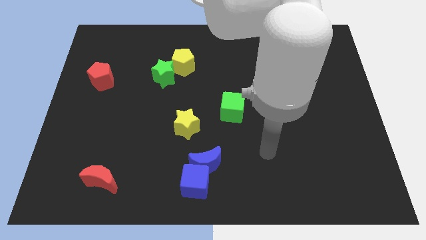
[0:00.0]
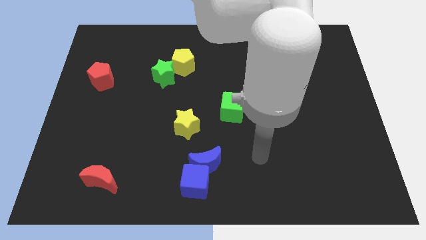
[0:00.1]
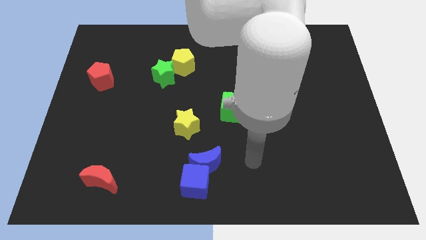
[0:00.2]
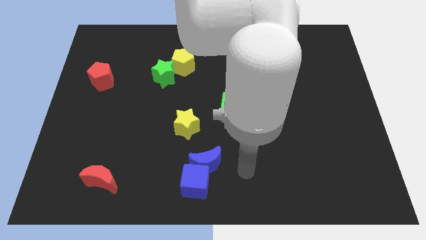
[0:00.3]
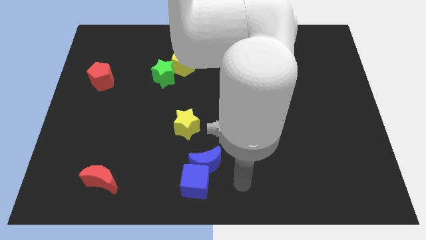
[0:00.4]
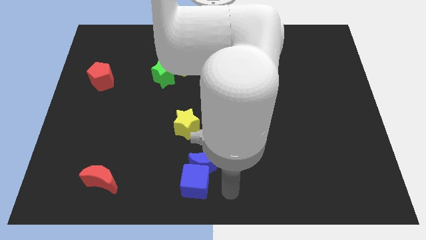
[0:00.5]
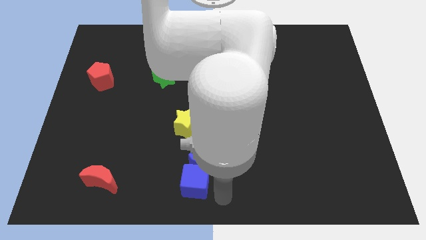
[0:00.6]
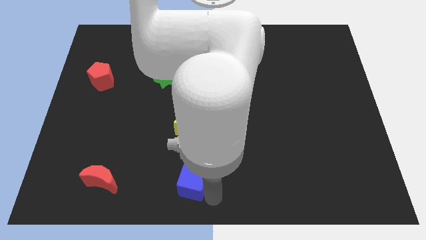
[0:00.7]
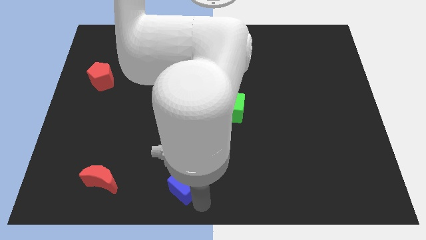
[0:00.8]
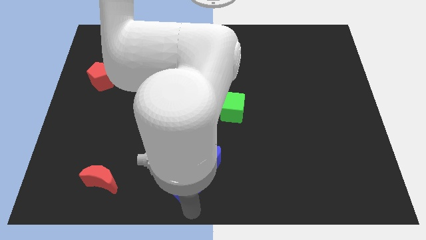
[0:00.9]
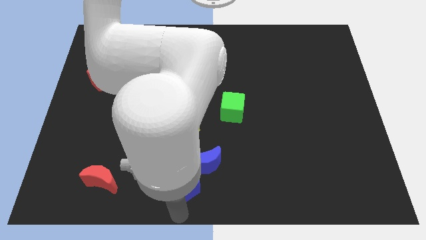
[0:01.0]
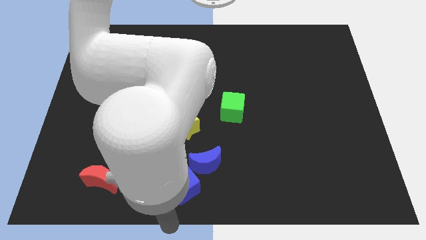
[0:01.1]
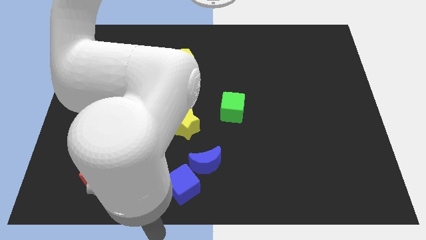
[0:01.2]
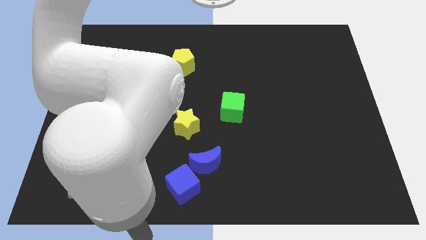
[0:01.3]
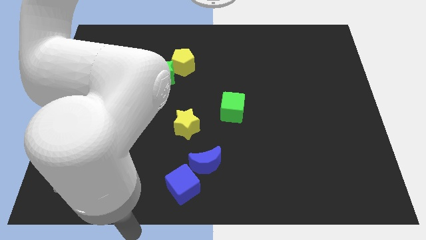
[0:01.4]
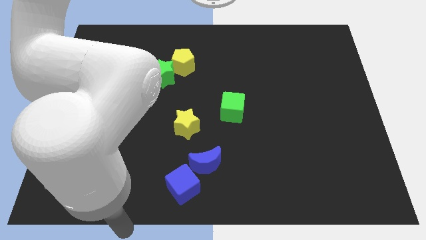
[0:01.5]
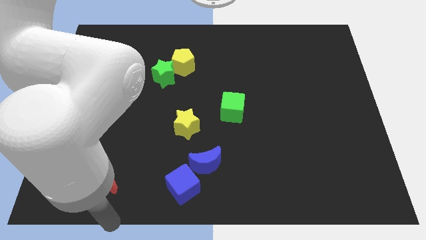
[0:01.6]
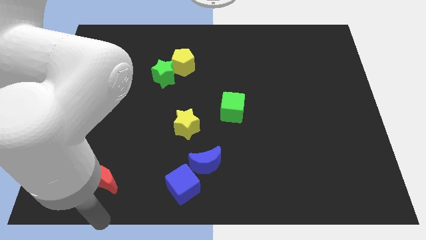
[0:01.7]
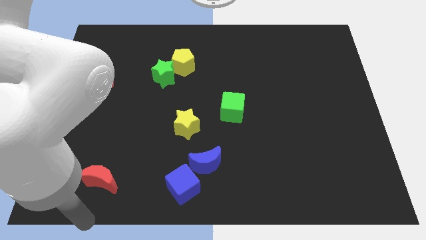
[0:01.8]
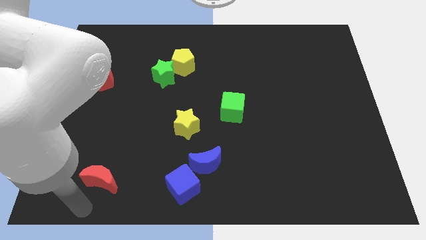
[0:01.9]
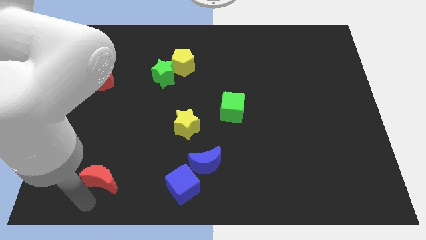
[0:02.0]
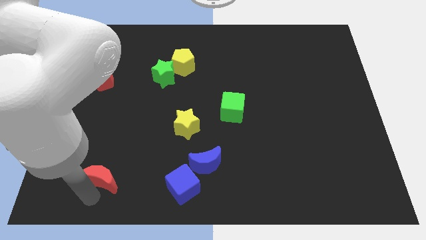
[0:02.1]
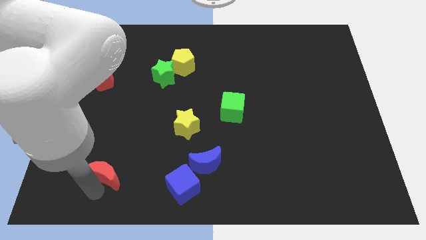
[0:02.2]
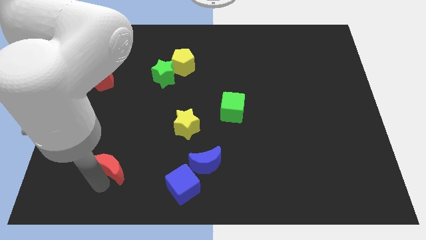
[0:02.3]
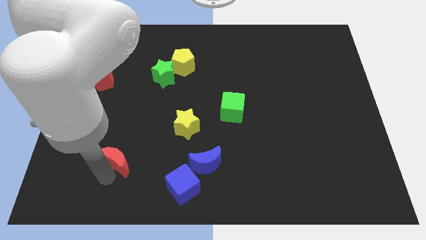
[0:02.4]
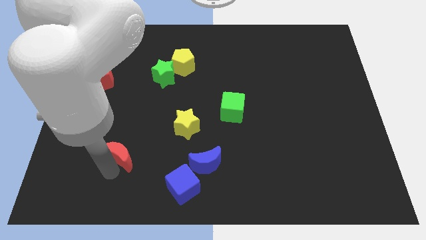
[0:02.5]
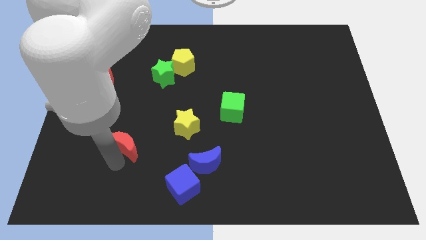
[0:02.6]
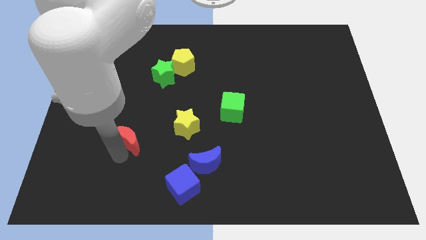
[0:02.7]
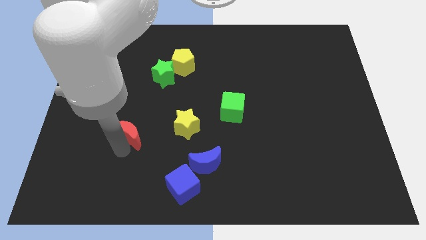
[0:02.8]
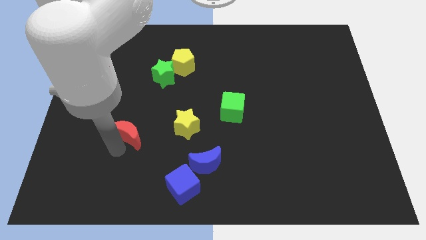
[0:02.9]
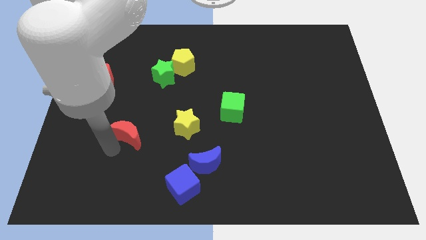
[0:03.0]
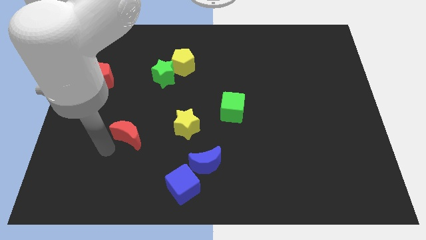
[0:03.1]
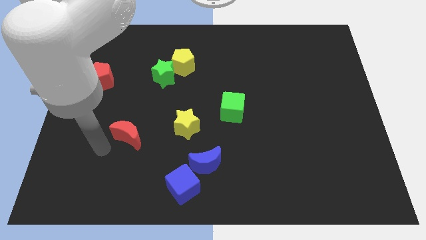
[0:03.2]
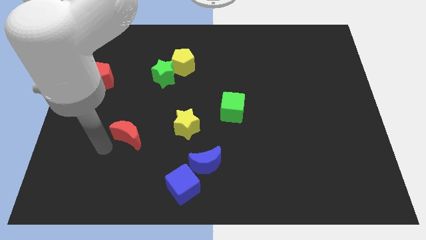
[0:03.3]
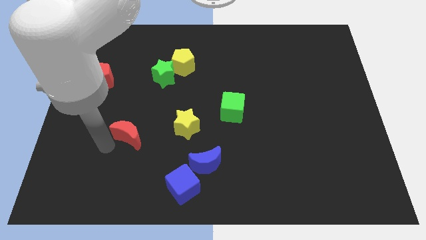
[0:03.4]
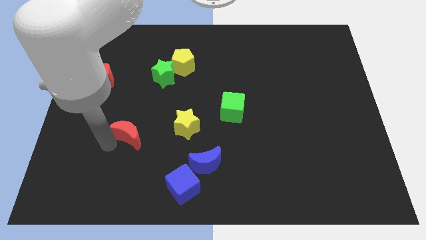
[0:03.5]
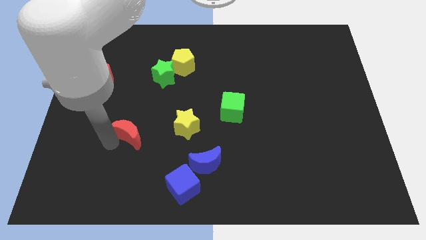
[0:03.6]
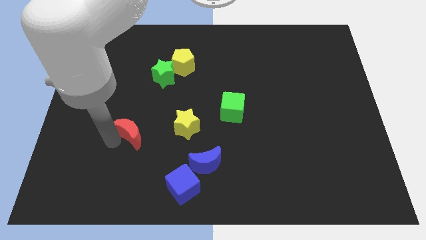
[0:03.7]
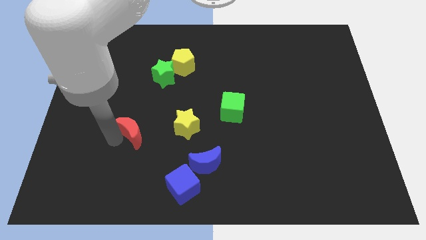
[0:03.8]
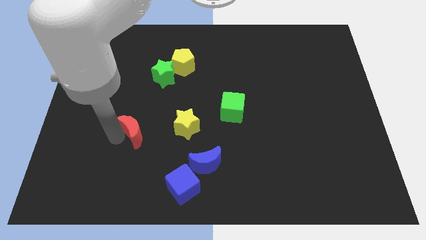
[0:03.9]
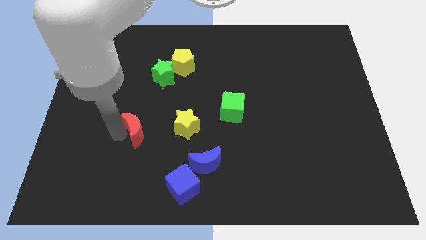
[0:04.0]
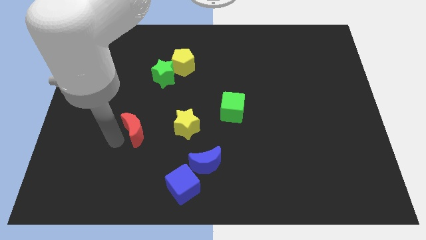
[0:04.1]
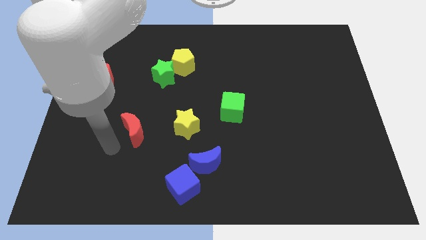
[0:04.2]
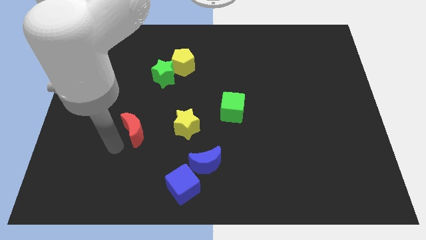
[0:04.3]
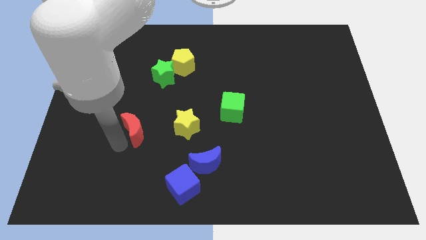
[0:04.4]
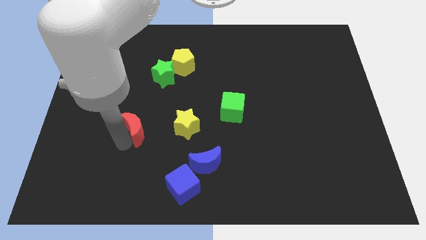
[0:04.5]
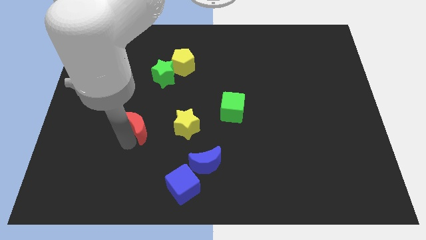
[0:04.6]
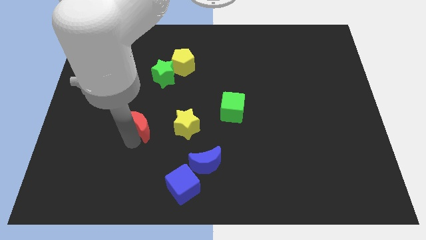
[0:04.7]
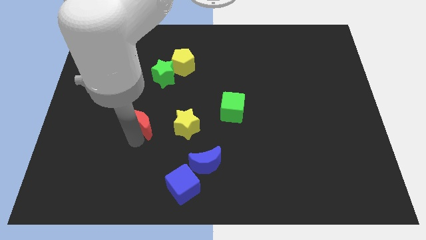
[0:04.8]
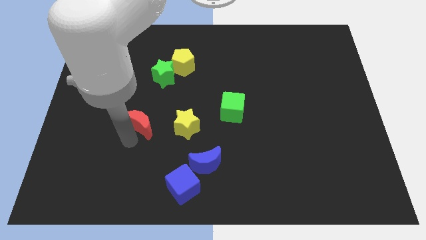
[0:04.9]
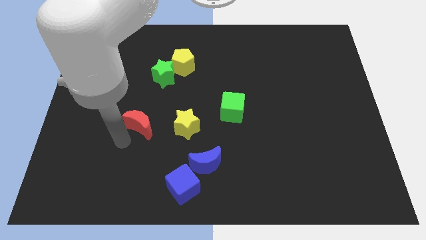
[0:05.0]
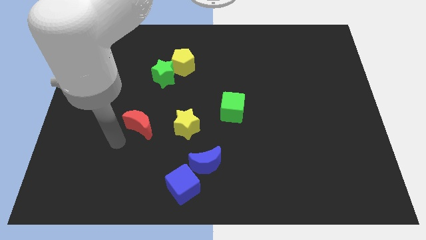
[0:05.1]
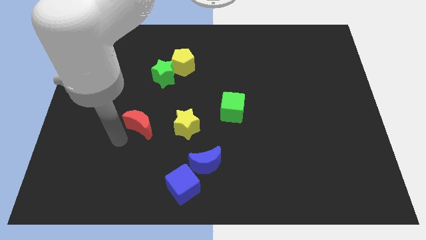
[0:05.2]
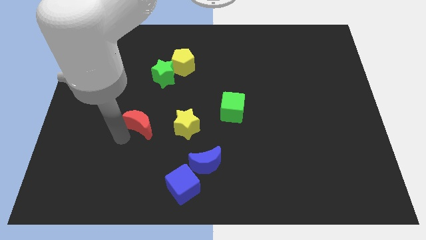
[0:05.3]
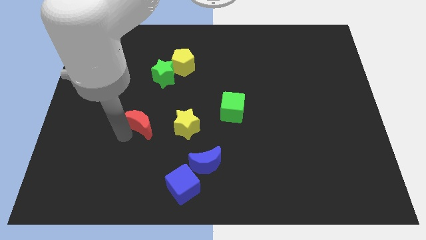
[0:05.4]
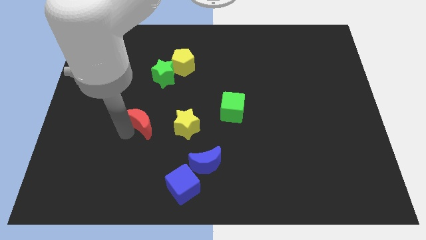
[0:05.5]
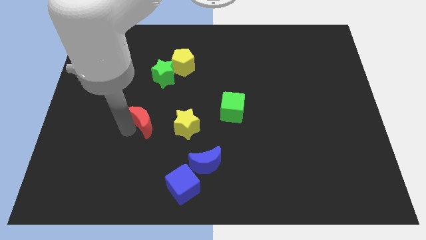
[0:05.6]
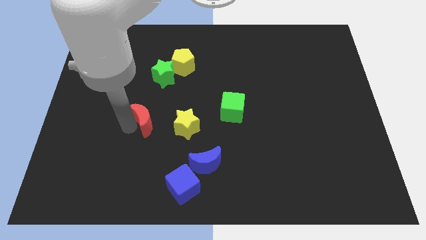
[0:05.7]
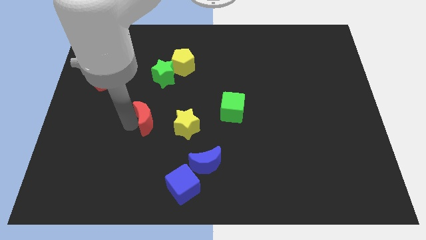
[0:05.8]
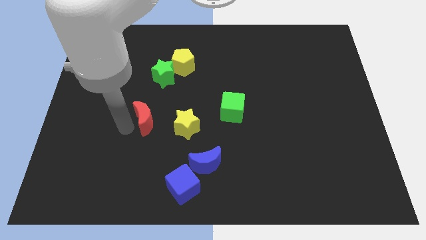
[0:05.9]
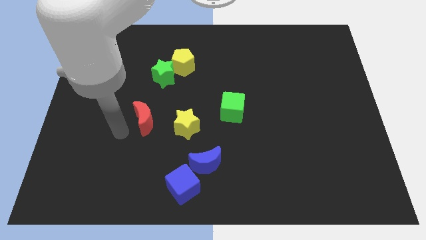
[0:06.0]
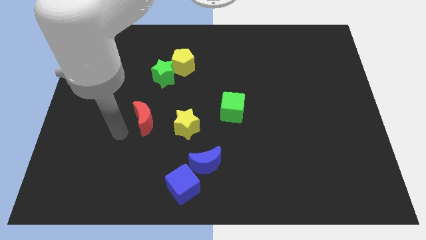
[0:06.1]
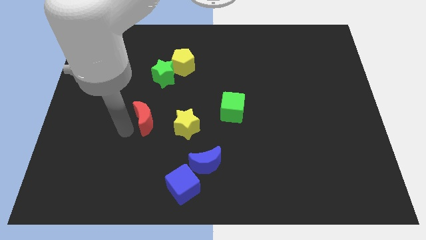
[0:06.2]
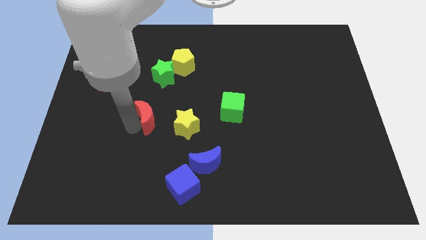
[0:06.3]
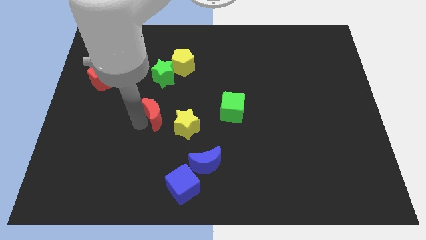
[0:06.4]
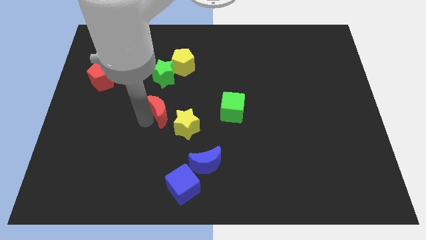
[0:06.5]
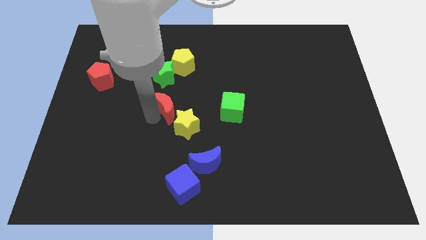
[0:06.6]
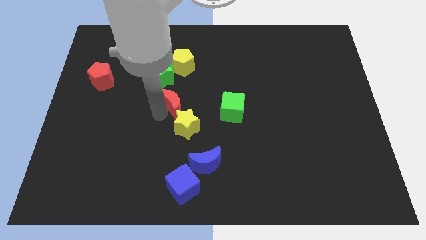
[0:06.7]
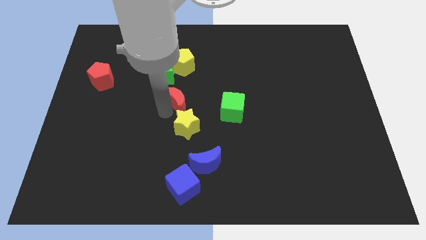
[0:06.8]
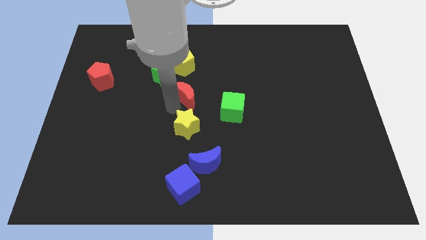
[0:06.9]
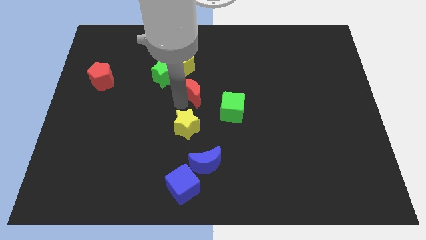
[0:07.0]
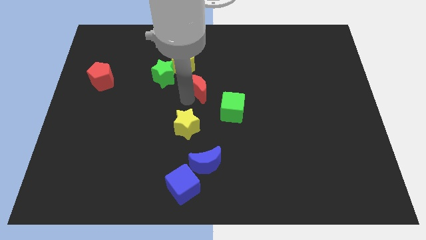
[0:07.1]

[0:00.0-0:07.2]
push the red moon just right of the green star
